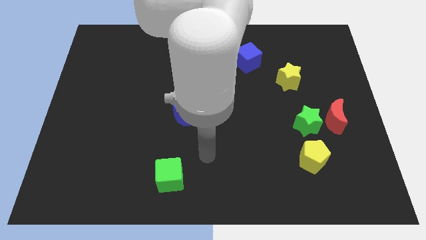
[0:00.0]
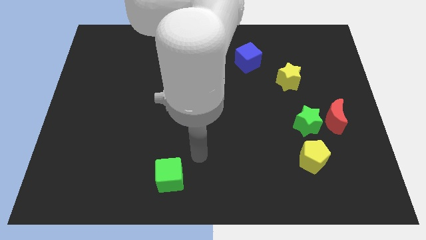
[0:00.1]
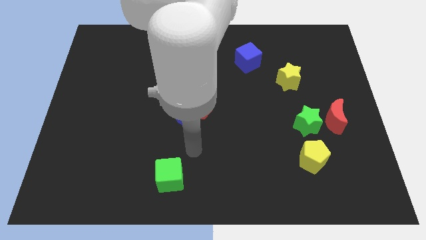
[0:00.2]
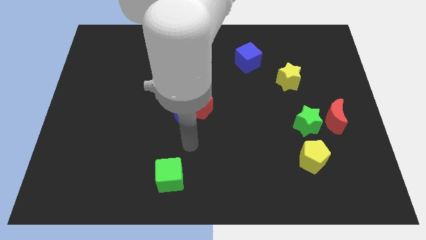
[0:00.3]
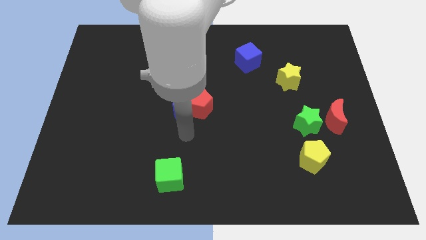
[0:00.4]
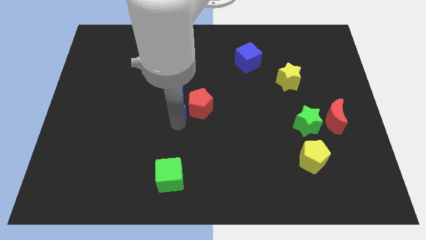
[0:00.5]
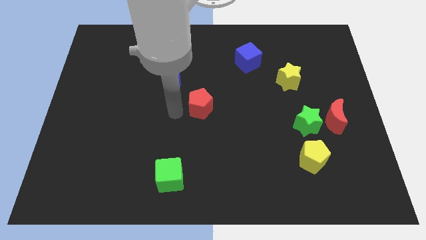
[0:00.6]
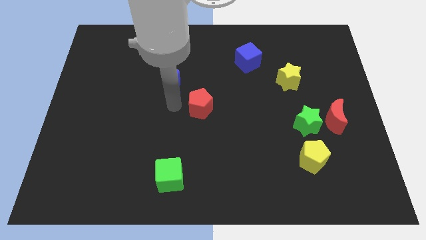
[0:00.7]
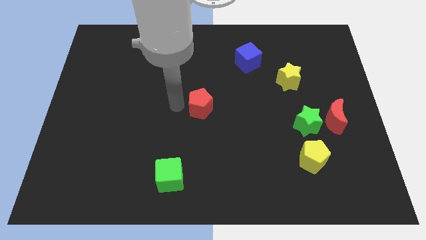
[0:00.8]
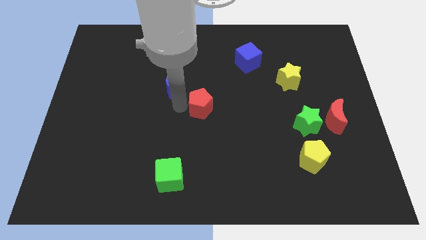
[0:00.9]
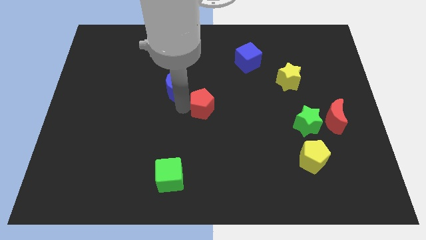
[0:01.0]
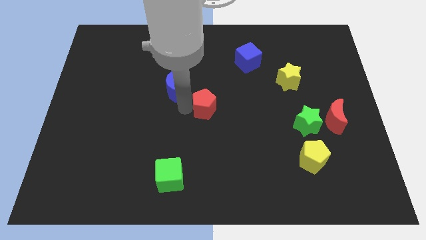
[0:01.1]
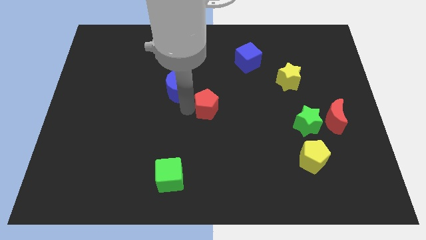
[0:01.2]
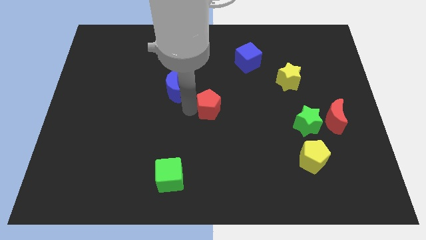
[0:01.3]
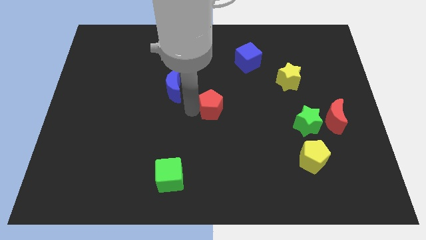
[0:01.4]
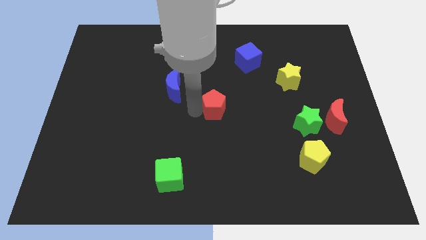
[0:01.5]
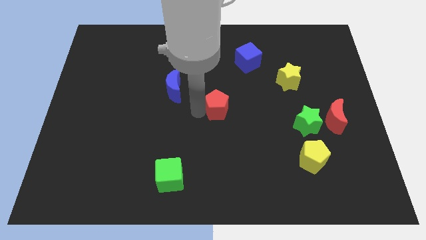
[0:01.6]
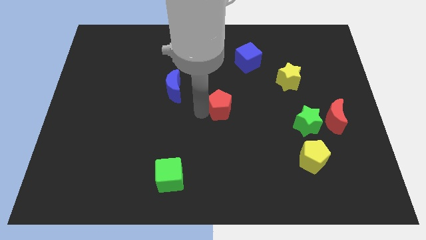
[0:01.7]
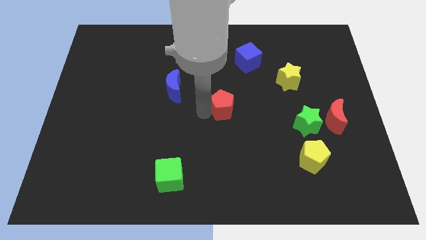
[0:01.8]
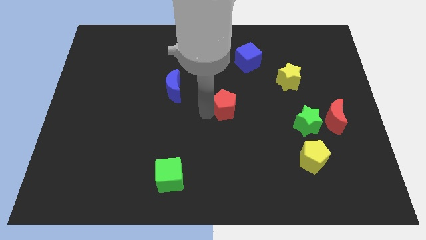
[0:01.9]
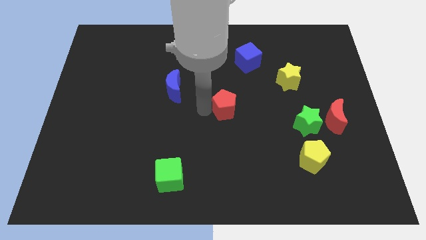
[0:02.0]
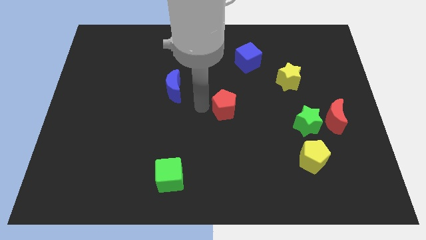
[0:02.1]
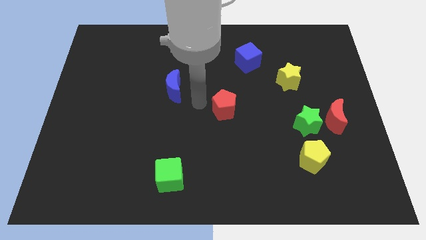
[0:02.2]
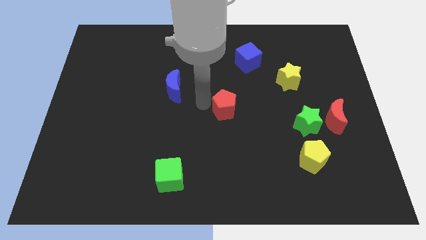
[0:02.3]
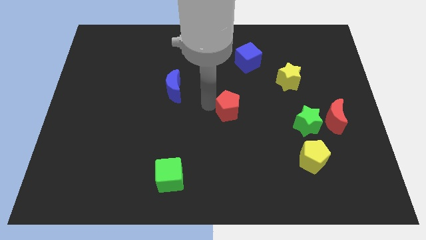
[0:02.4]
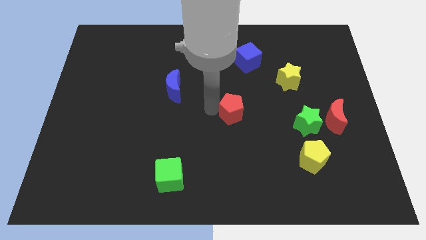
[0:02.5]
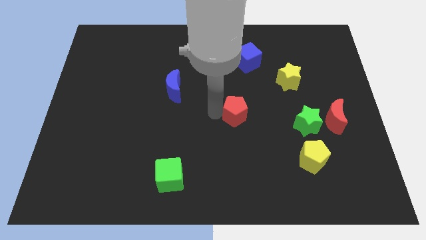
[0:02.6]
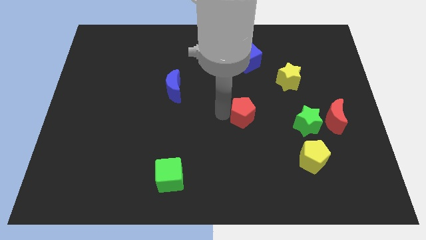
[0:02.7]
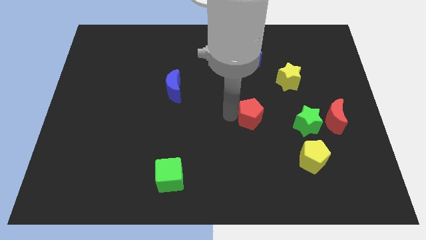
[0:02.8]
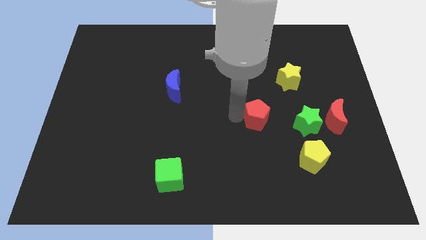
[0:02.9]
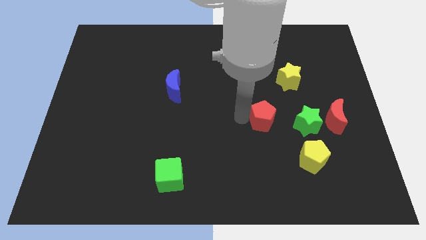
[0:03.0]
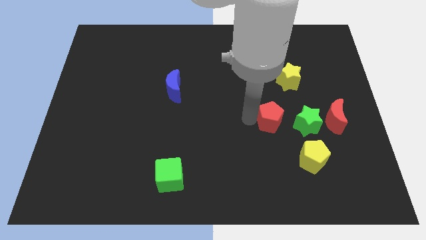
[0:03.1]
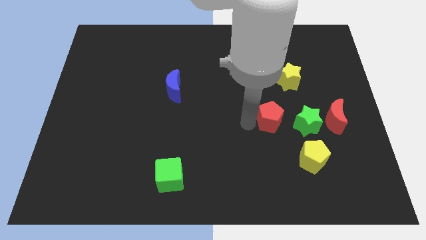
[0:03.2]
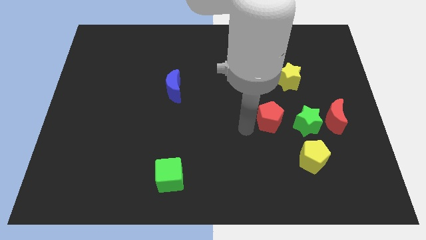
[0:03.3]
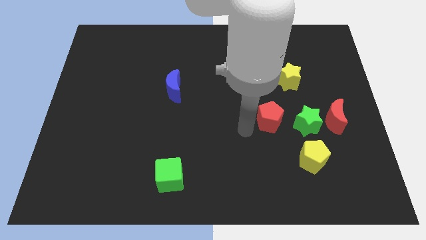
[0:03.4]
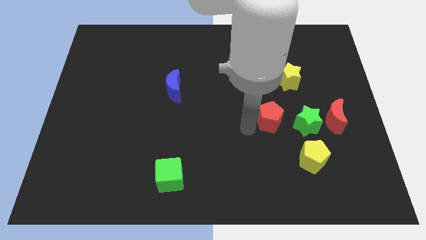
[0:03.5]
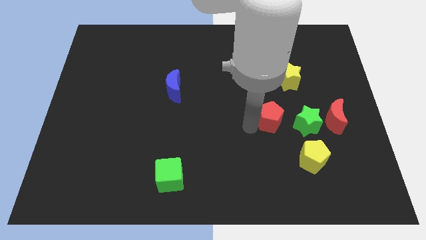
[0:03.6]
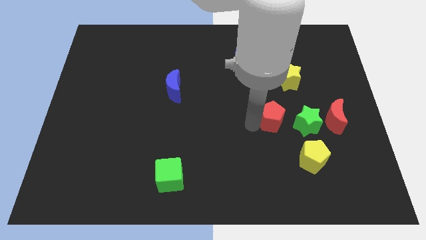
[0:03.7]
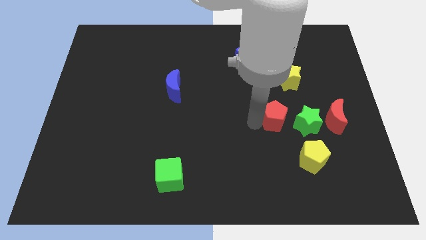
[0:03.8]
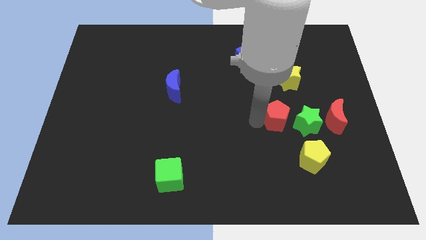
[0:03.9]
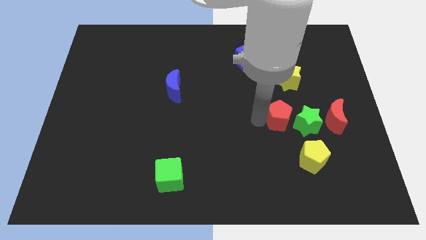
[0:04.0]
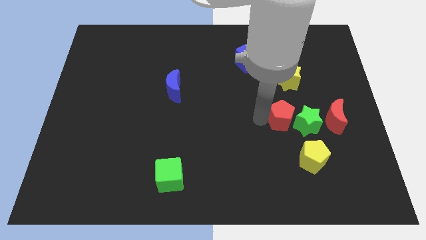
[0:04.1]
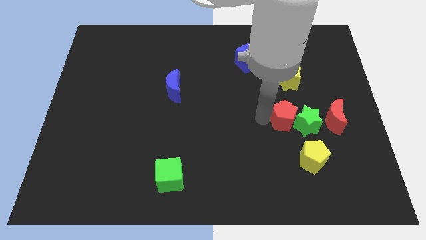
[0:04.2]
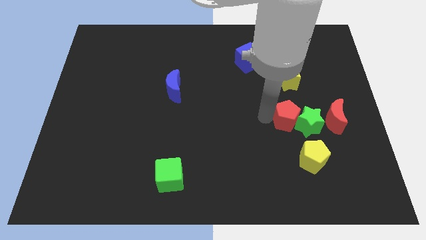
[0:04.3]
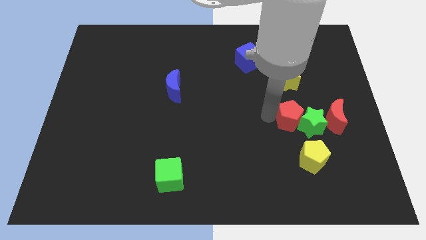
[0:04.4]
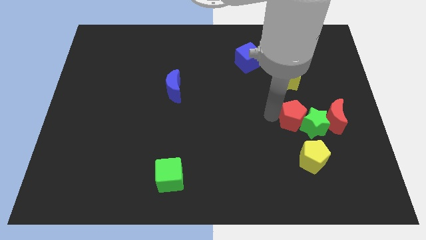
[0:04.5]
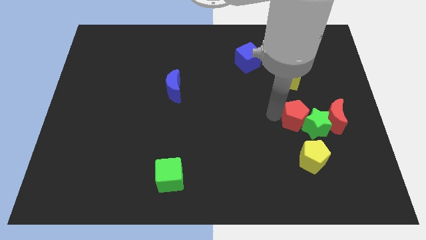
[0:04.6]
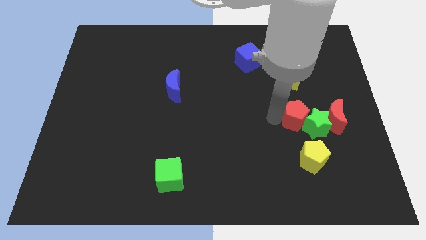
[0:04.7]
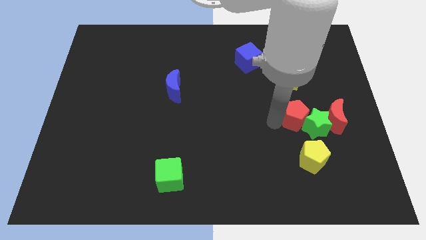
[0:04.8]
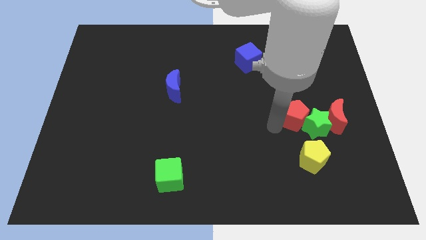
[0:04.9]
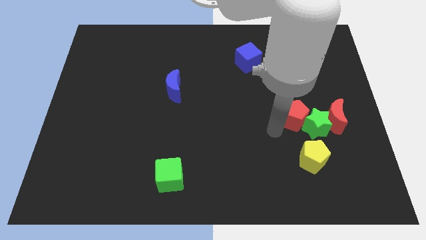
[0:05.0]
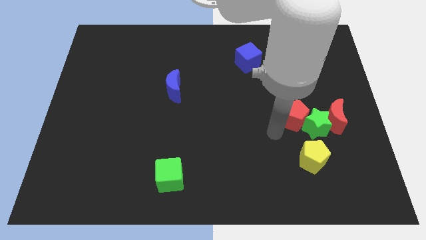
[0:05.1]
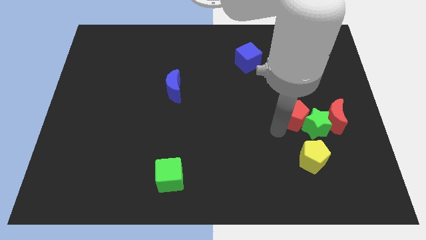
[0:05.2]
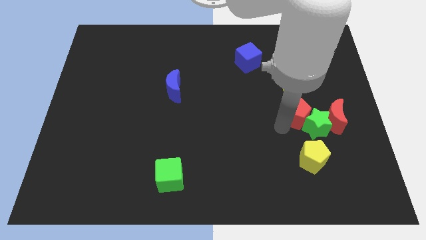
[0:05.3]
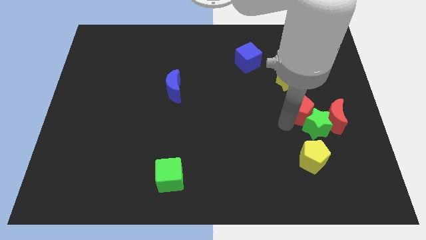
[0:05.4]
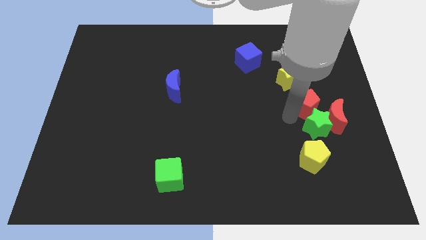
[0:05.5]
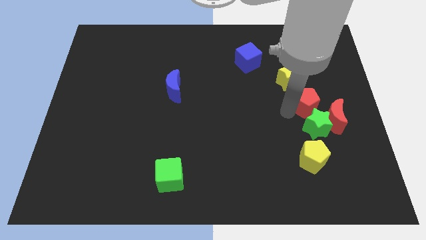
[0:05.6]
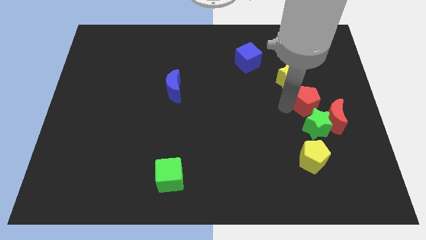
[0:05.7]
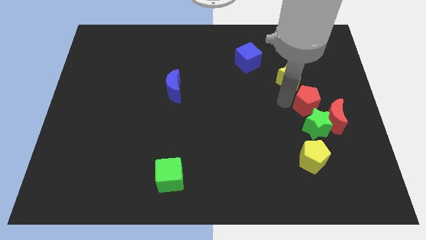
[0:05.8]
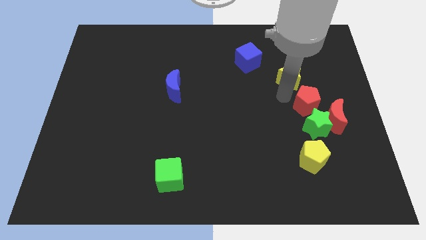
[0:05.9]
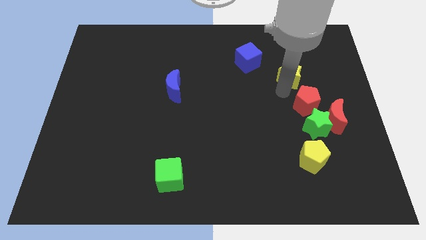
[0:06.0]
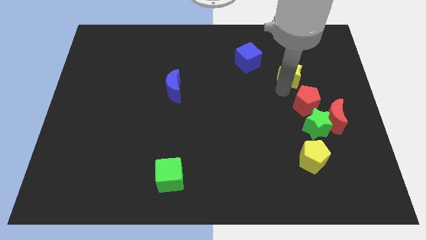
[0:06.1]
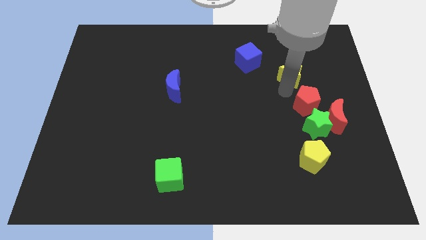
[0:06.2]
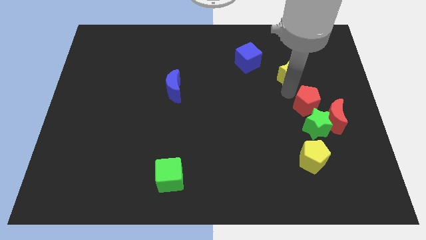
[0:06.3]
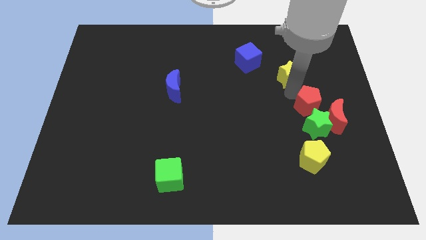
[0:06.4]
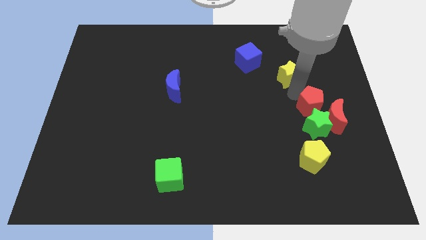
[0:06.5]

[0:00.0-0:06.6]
put the red pentagon next to the red moon

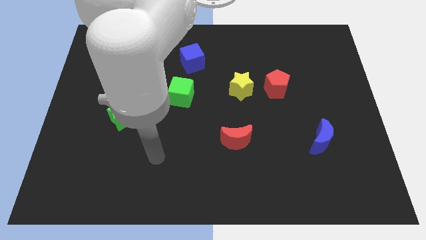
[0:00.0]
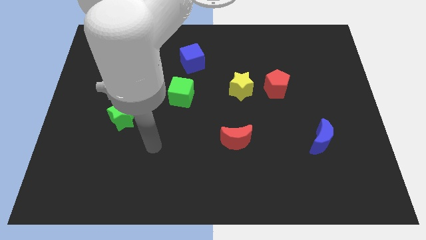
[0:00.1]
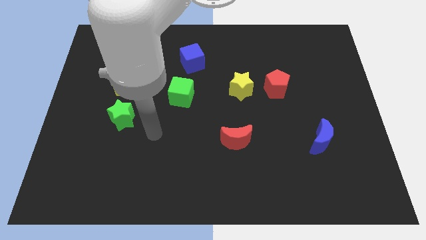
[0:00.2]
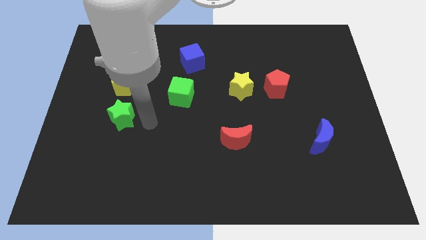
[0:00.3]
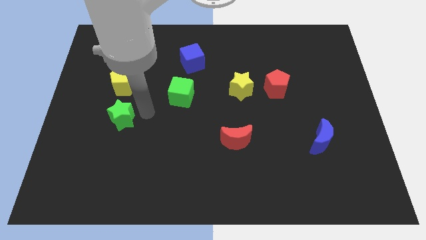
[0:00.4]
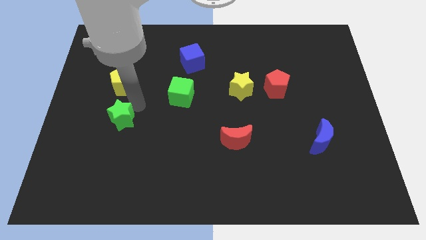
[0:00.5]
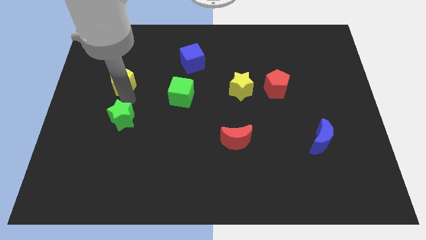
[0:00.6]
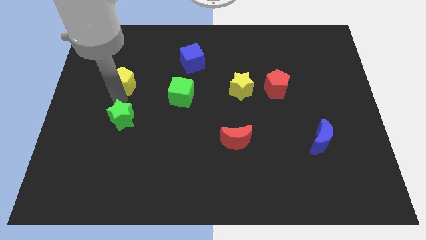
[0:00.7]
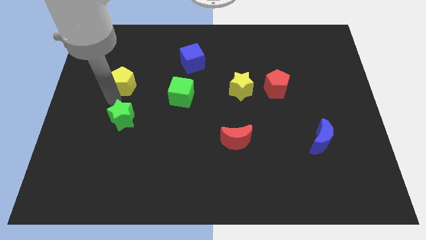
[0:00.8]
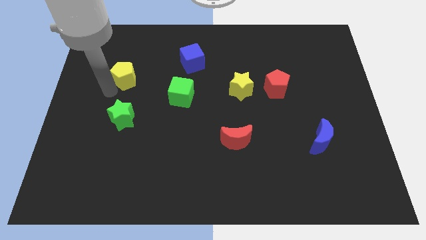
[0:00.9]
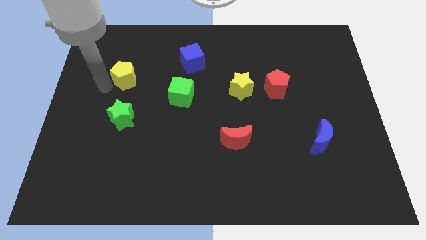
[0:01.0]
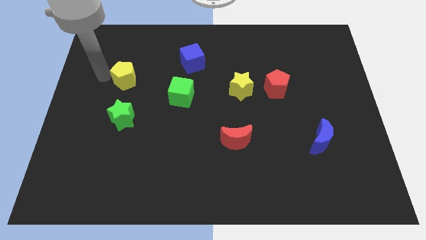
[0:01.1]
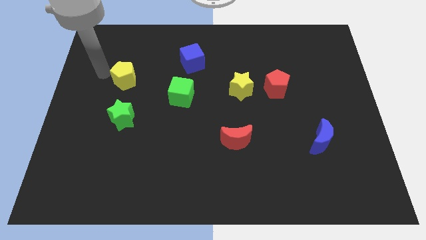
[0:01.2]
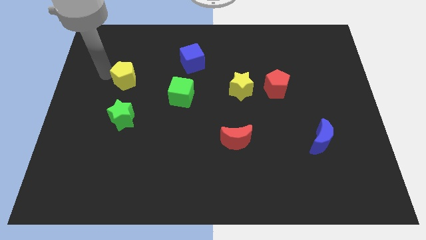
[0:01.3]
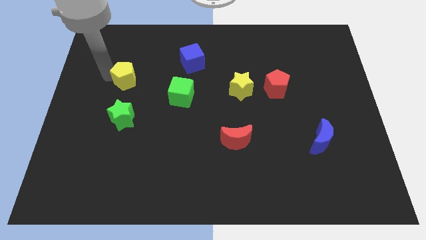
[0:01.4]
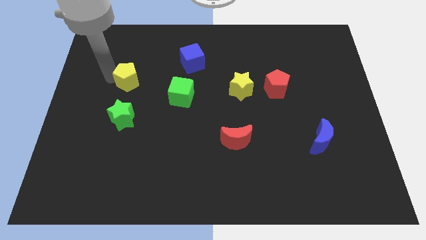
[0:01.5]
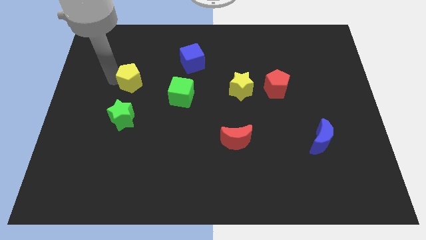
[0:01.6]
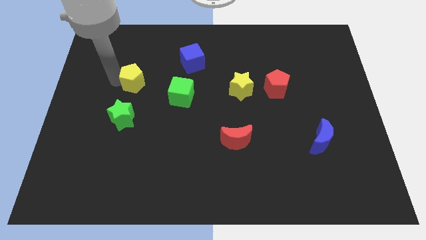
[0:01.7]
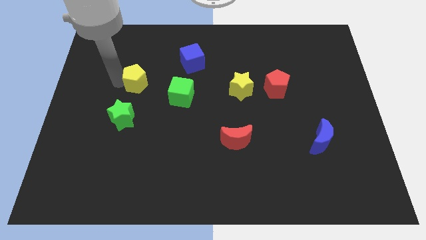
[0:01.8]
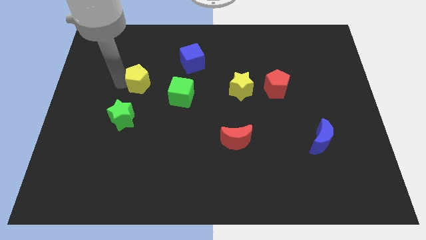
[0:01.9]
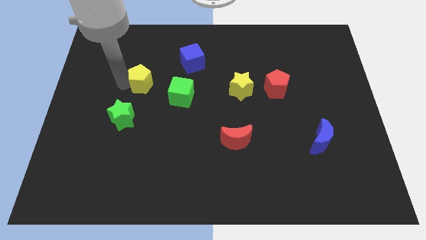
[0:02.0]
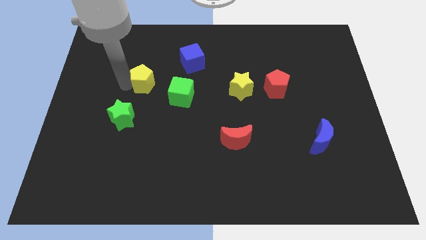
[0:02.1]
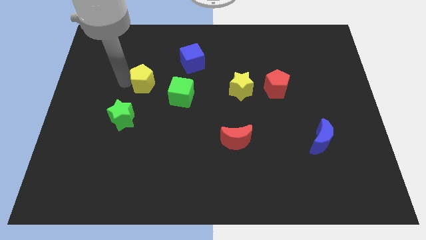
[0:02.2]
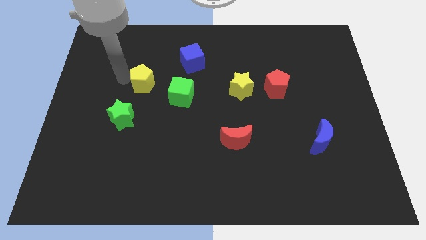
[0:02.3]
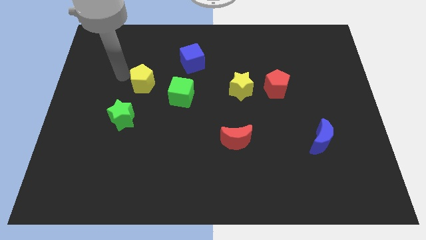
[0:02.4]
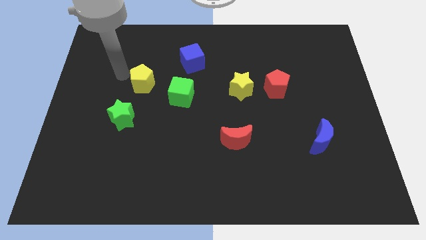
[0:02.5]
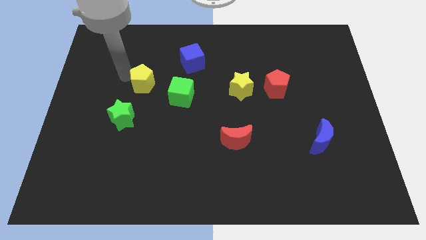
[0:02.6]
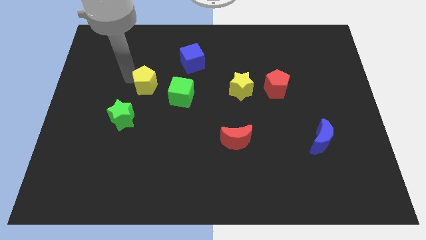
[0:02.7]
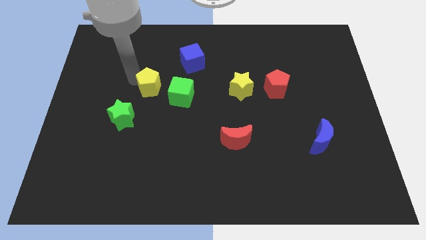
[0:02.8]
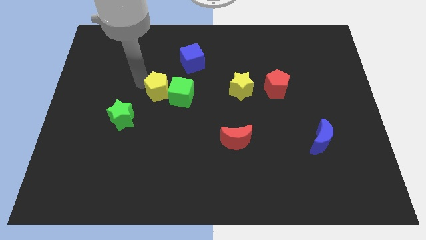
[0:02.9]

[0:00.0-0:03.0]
push the yellow pentagon next to the green cube
